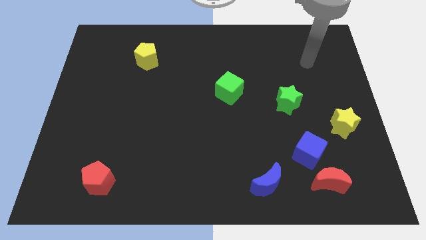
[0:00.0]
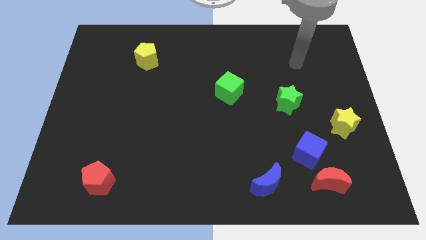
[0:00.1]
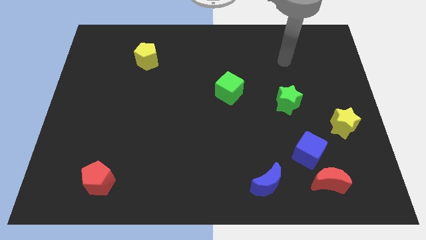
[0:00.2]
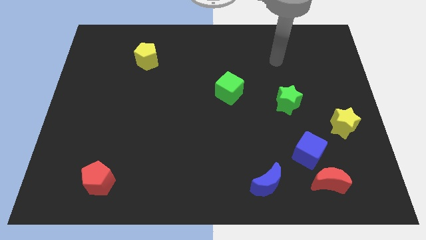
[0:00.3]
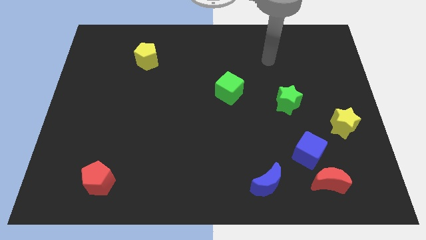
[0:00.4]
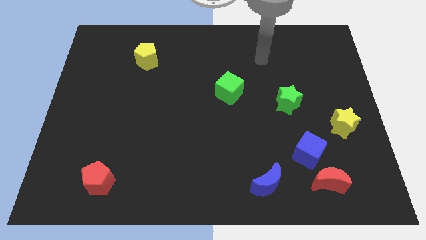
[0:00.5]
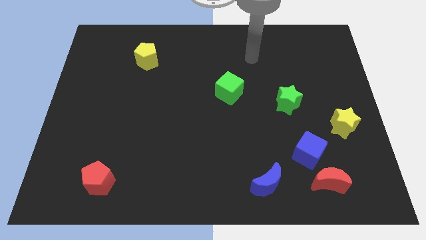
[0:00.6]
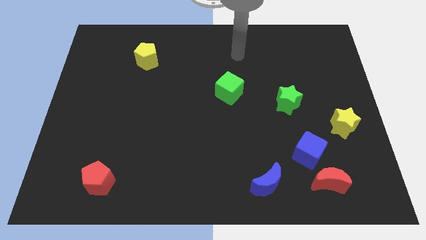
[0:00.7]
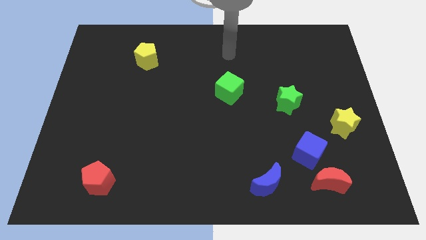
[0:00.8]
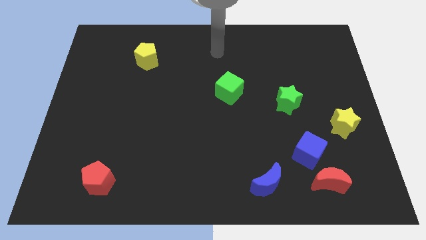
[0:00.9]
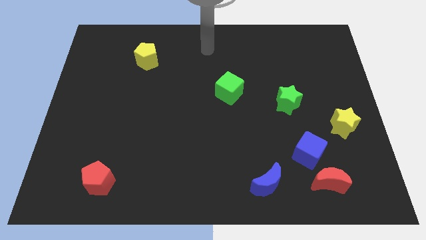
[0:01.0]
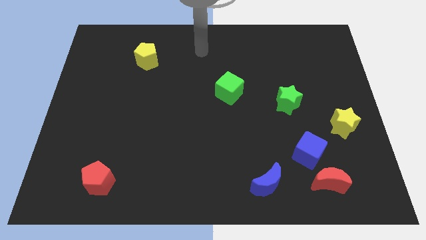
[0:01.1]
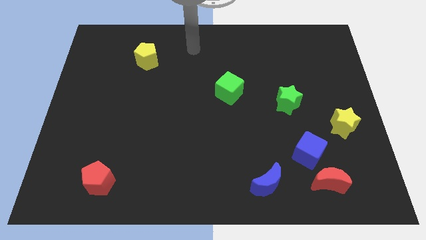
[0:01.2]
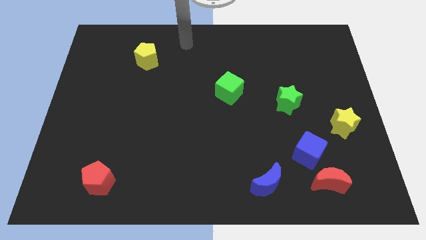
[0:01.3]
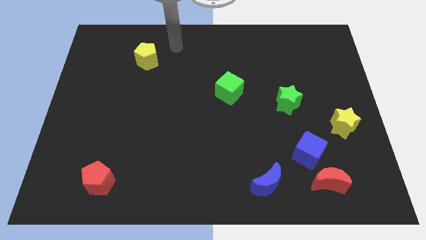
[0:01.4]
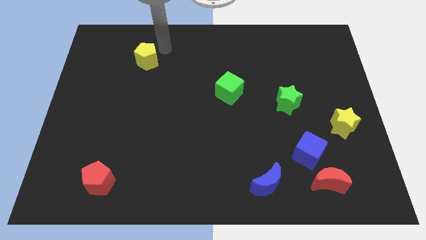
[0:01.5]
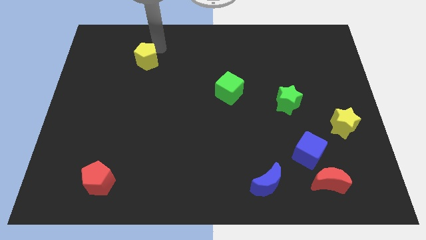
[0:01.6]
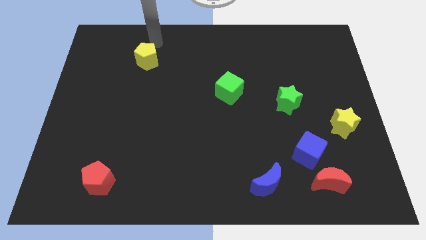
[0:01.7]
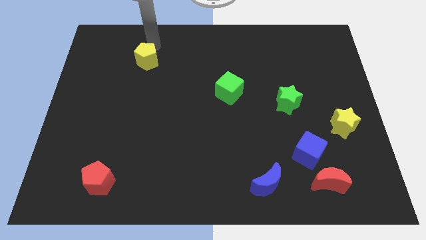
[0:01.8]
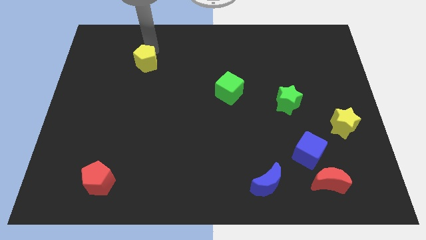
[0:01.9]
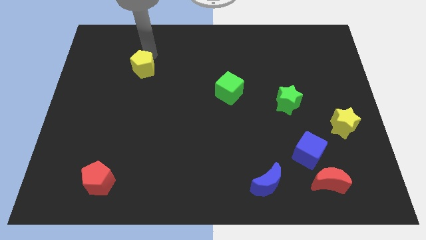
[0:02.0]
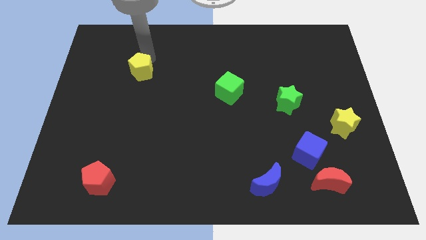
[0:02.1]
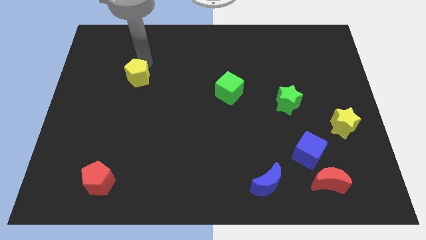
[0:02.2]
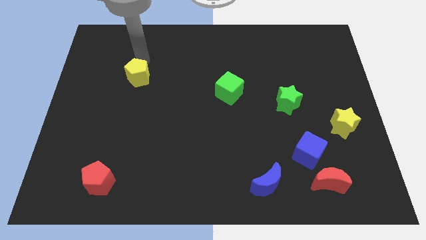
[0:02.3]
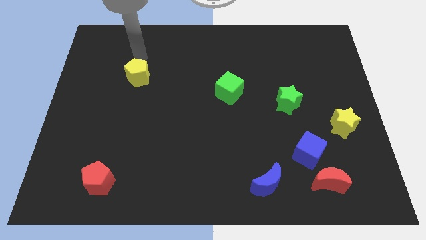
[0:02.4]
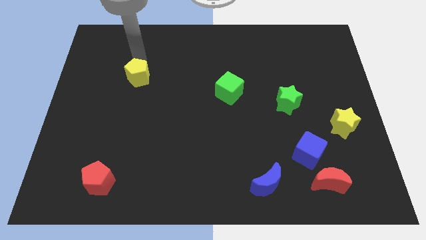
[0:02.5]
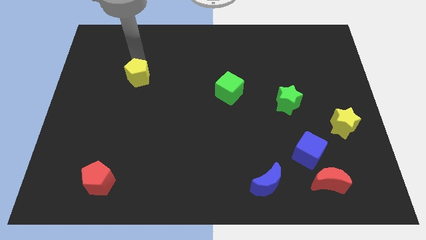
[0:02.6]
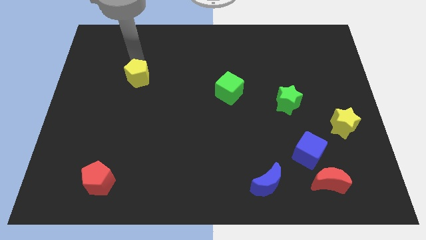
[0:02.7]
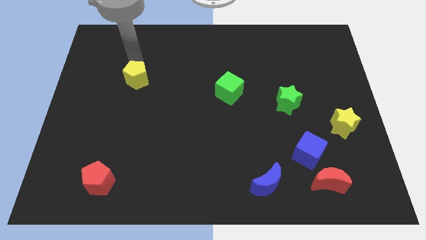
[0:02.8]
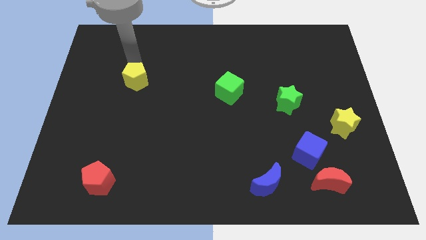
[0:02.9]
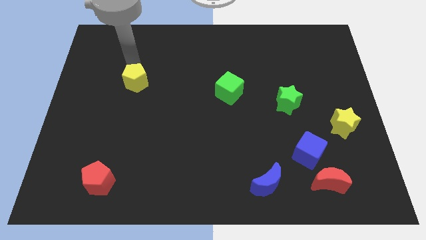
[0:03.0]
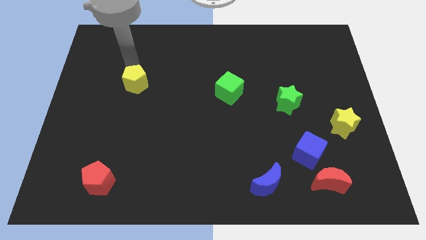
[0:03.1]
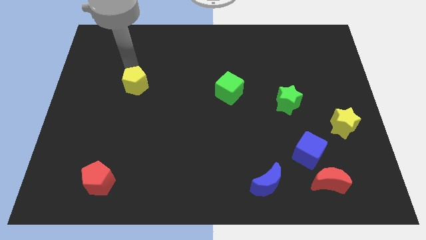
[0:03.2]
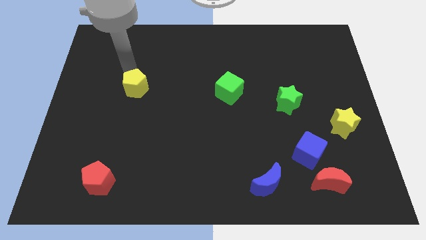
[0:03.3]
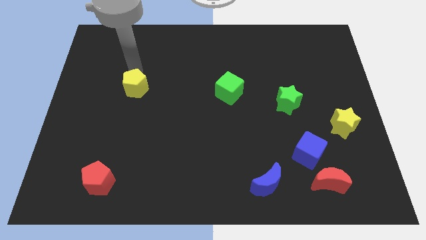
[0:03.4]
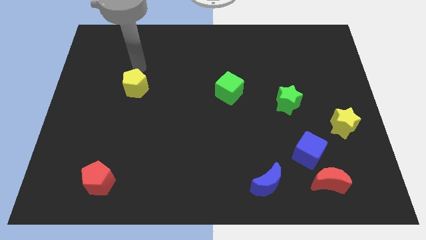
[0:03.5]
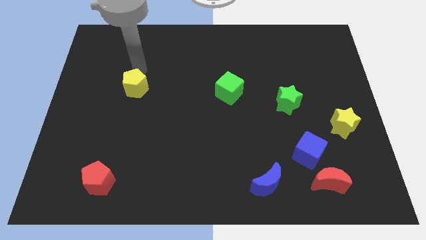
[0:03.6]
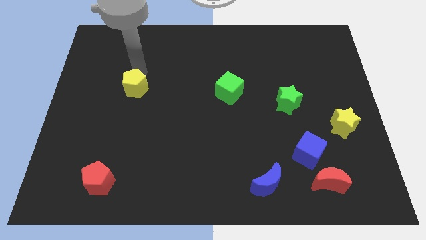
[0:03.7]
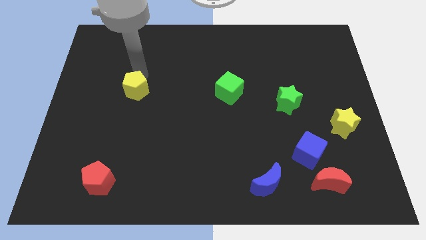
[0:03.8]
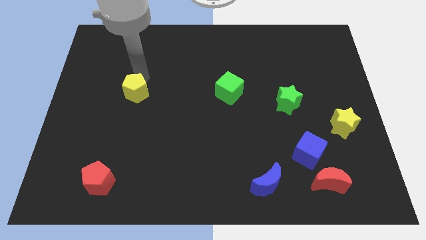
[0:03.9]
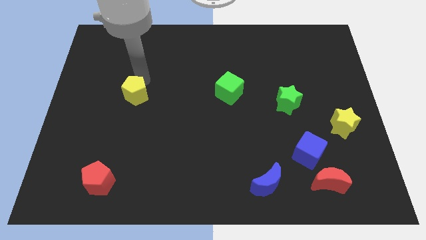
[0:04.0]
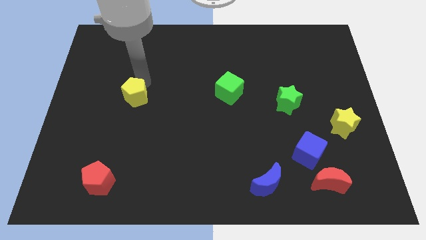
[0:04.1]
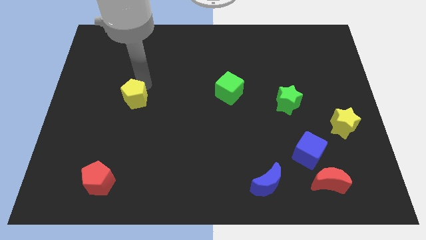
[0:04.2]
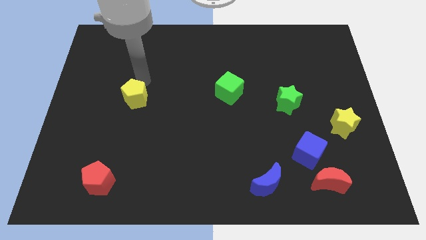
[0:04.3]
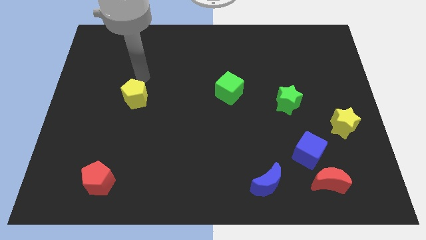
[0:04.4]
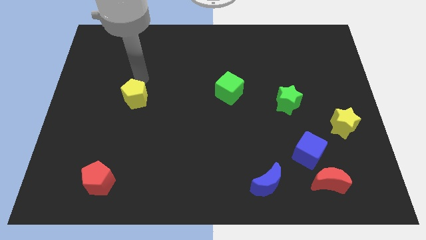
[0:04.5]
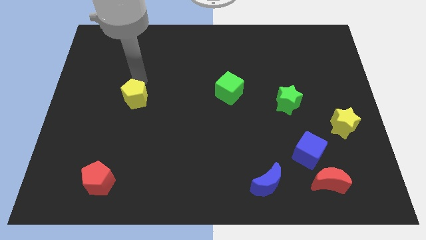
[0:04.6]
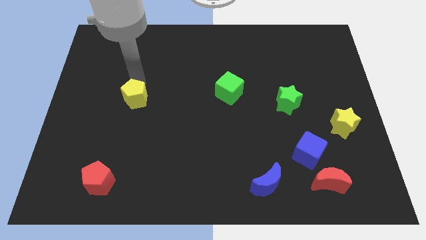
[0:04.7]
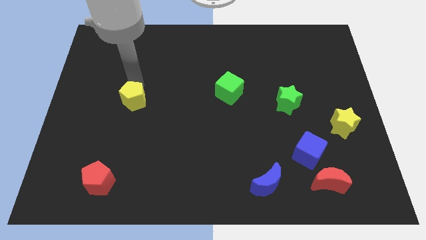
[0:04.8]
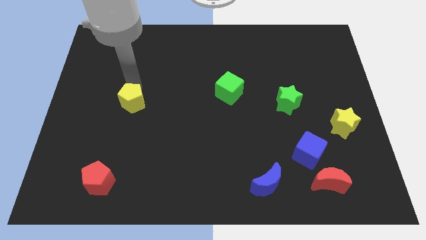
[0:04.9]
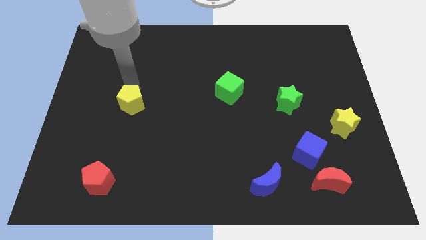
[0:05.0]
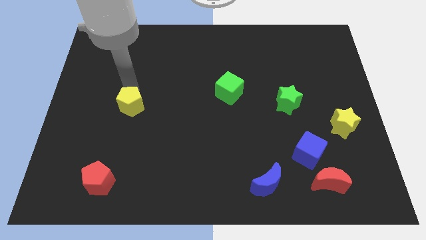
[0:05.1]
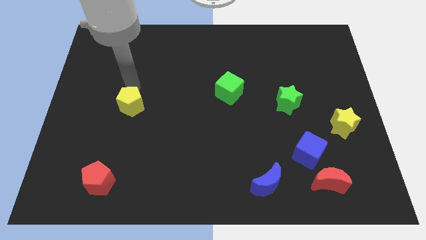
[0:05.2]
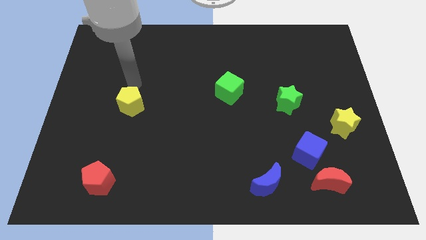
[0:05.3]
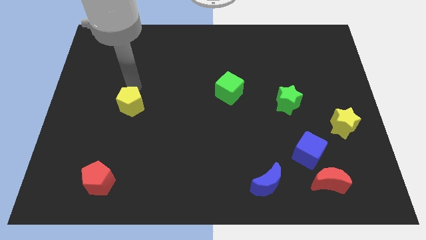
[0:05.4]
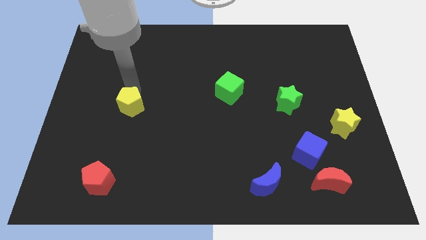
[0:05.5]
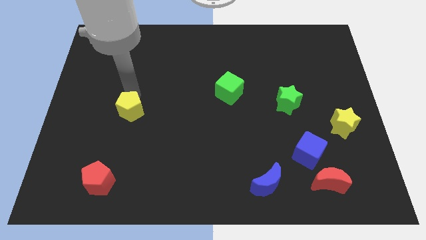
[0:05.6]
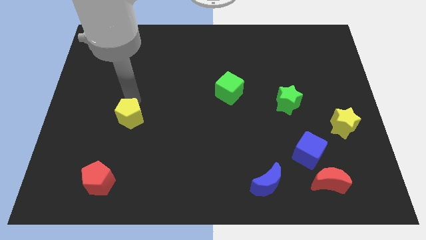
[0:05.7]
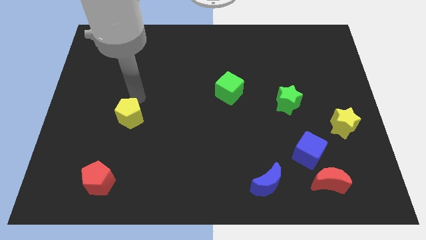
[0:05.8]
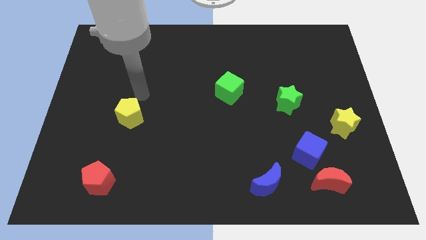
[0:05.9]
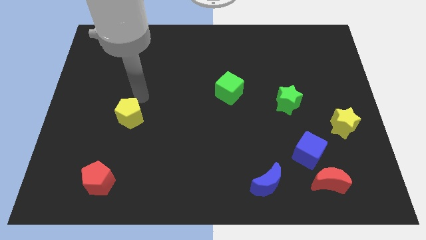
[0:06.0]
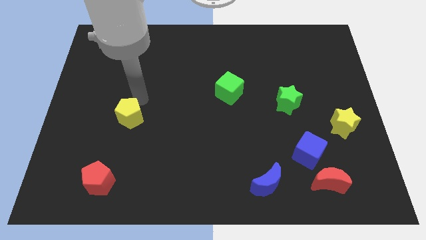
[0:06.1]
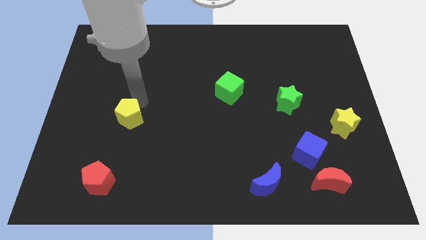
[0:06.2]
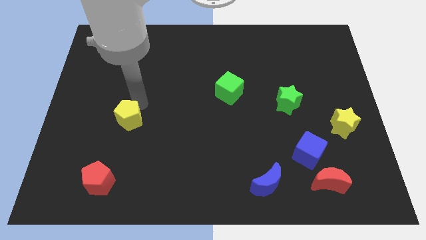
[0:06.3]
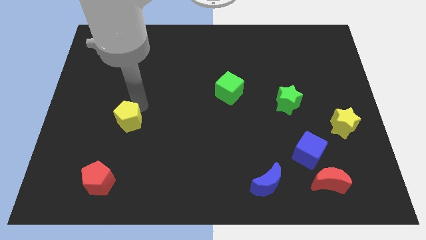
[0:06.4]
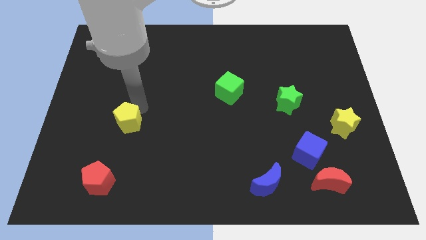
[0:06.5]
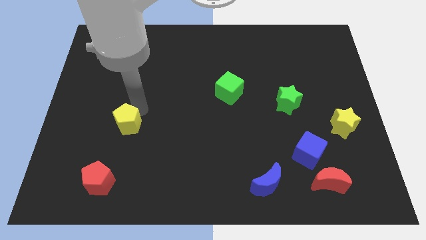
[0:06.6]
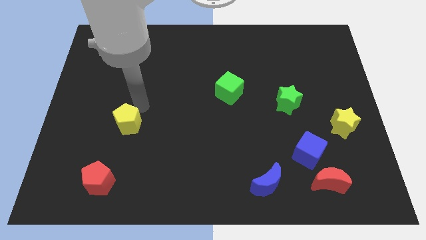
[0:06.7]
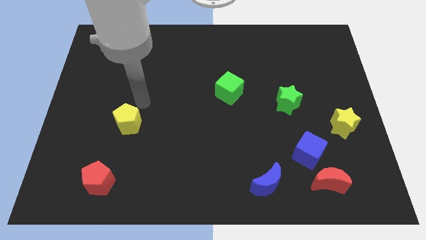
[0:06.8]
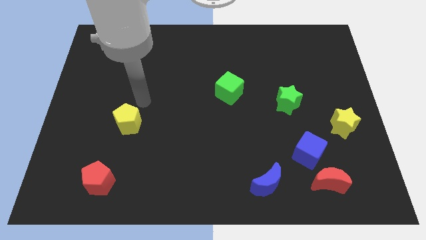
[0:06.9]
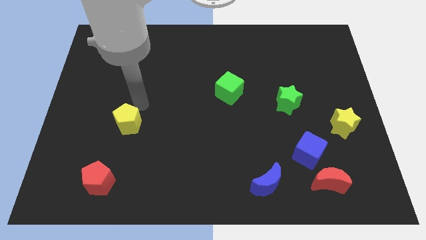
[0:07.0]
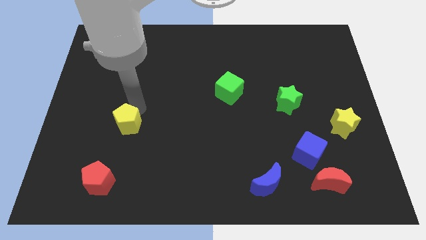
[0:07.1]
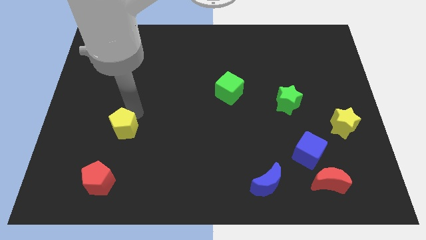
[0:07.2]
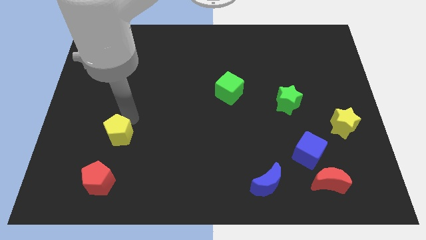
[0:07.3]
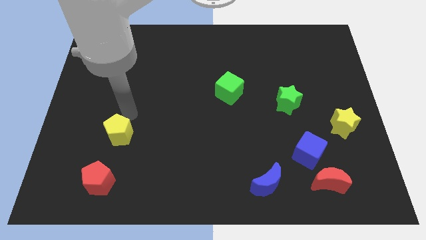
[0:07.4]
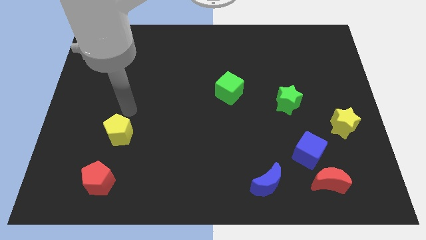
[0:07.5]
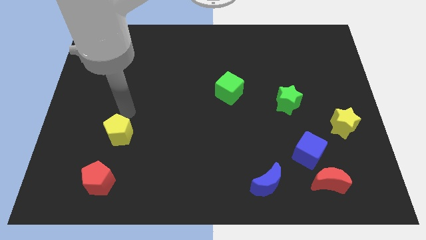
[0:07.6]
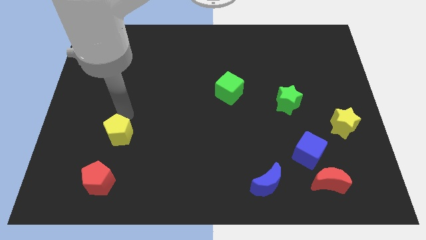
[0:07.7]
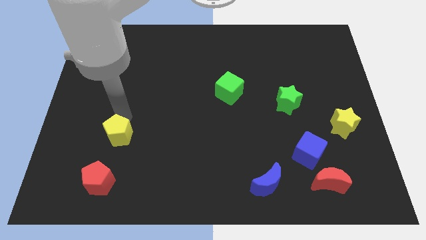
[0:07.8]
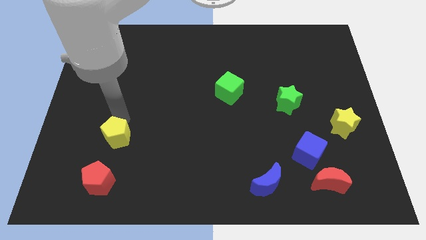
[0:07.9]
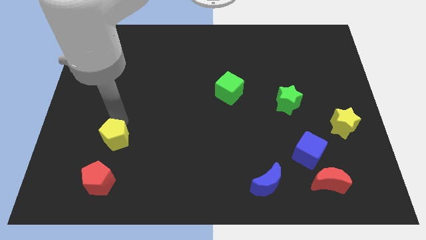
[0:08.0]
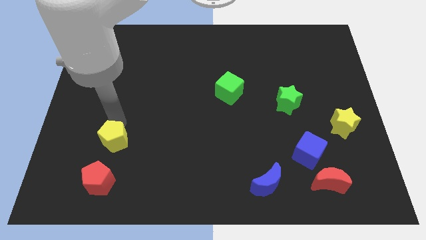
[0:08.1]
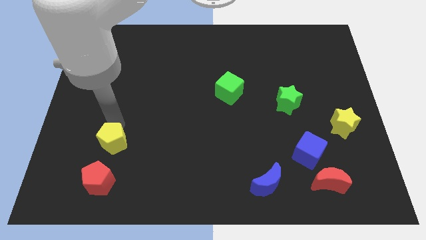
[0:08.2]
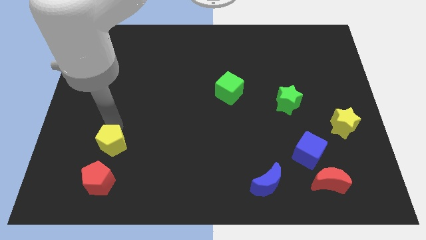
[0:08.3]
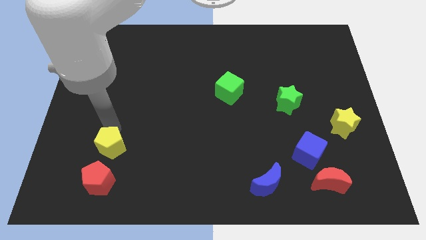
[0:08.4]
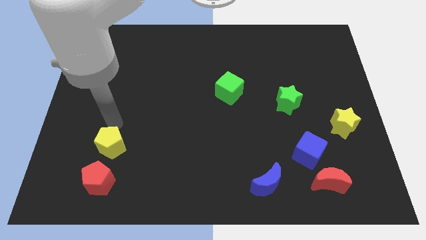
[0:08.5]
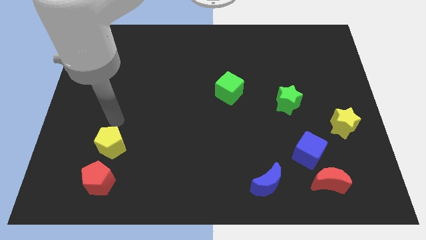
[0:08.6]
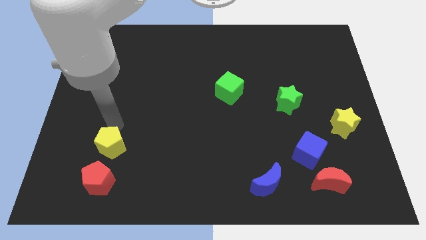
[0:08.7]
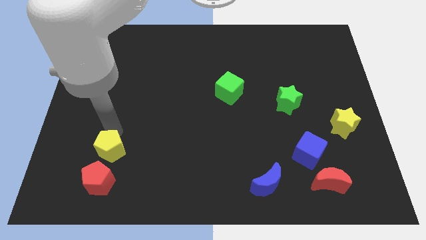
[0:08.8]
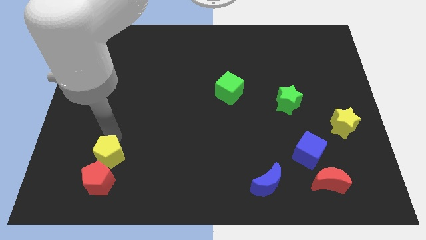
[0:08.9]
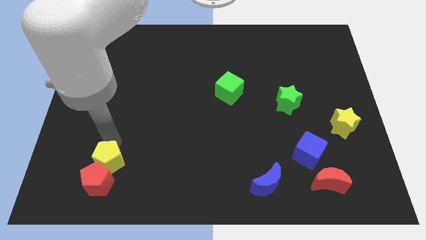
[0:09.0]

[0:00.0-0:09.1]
put the yellow pentagon close to the red pentagon
